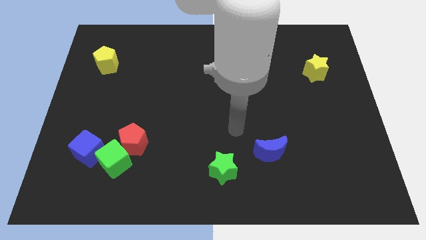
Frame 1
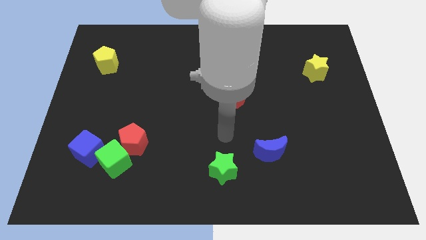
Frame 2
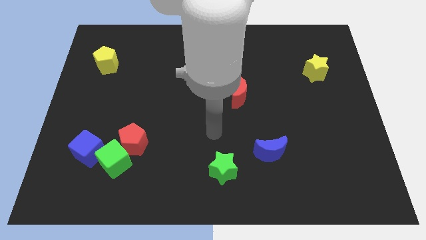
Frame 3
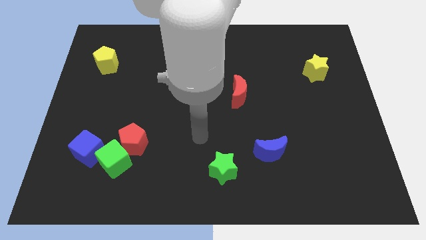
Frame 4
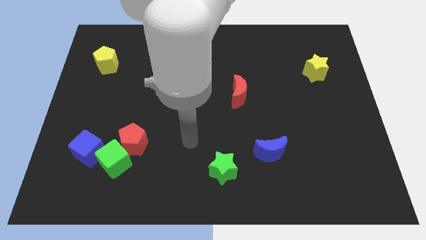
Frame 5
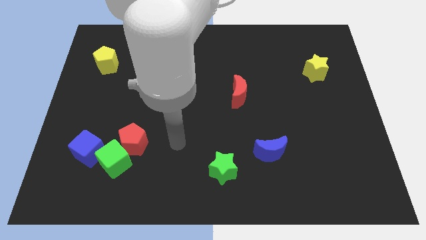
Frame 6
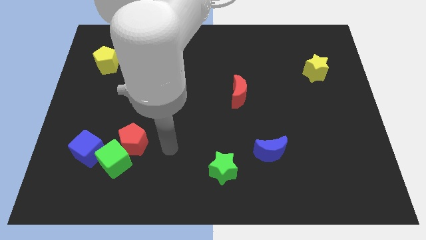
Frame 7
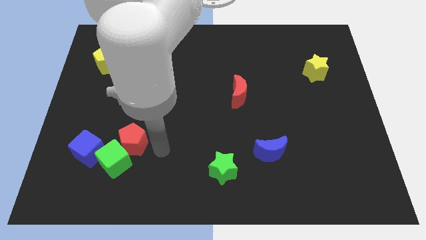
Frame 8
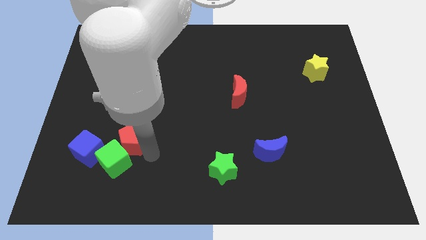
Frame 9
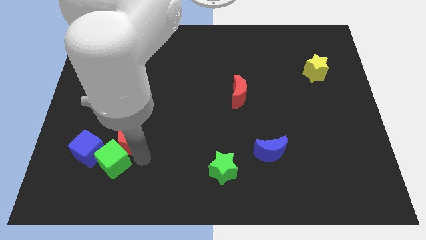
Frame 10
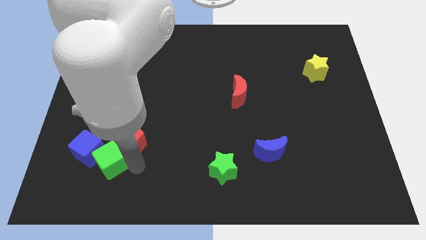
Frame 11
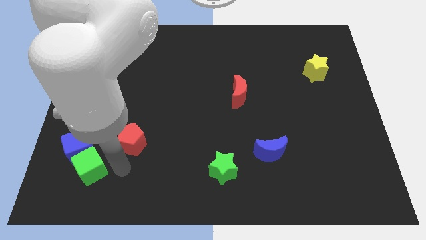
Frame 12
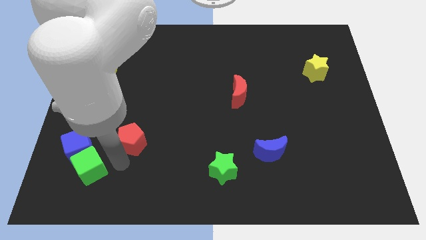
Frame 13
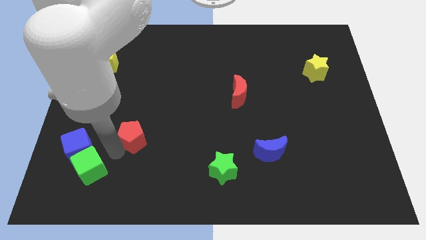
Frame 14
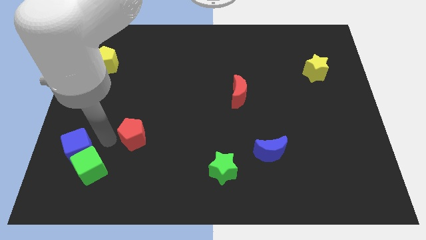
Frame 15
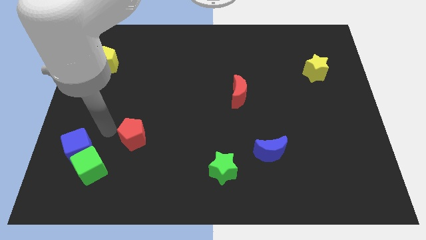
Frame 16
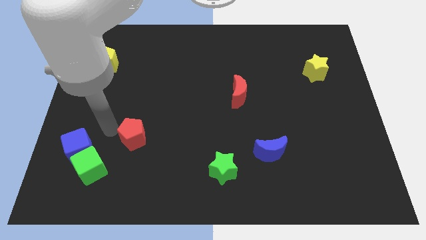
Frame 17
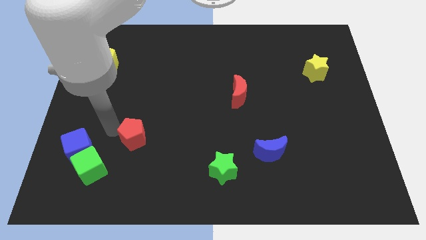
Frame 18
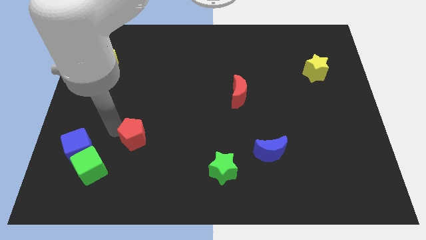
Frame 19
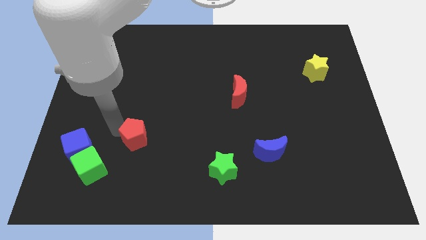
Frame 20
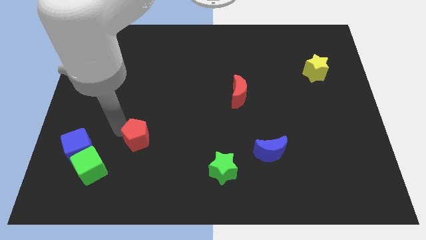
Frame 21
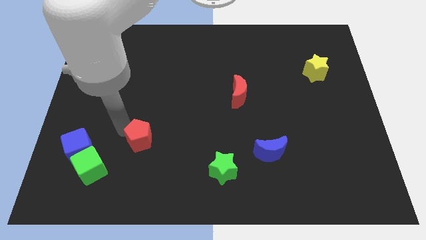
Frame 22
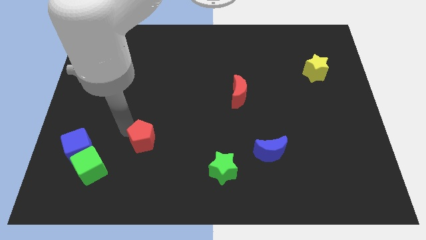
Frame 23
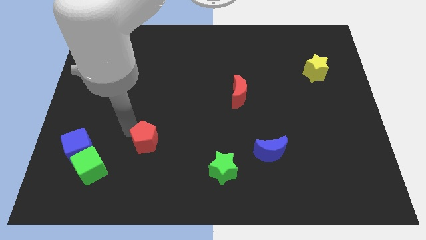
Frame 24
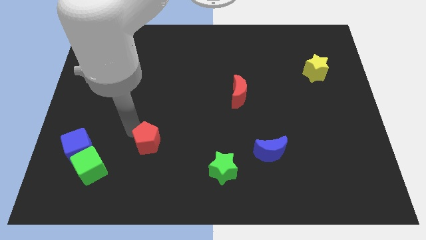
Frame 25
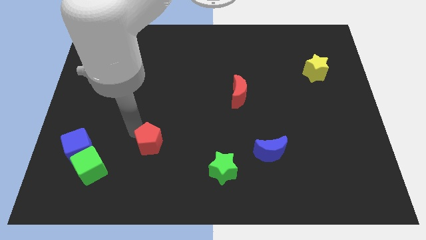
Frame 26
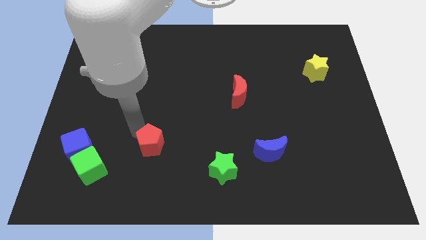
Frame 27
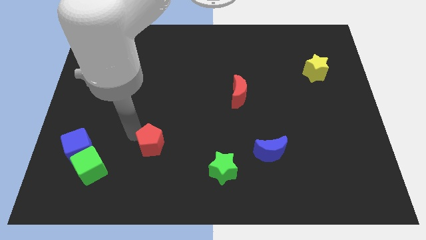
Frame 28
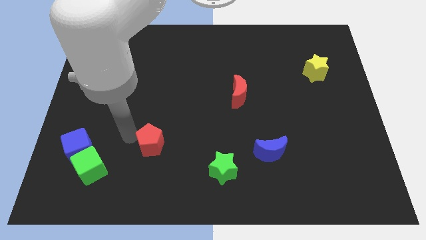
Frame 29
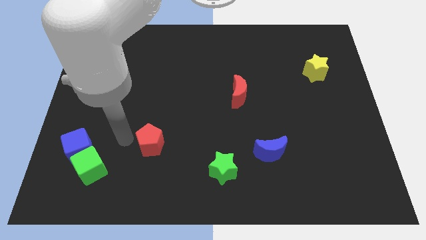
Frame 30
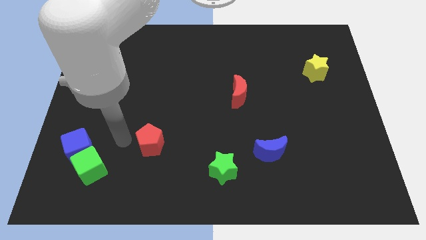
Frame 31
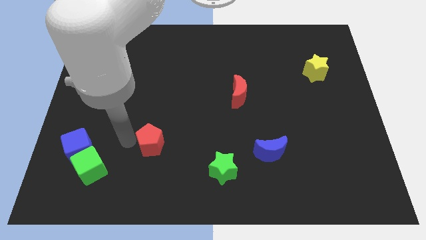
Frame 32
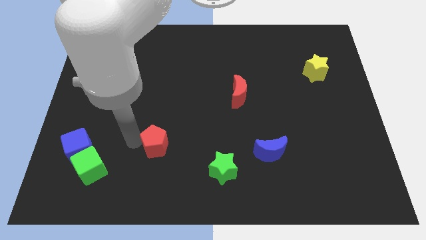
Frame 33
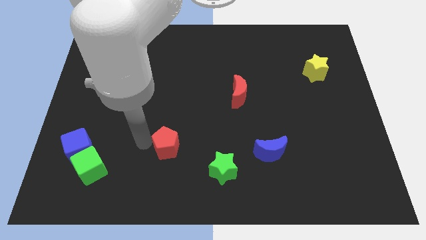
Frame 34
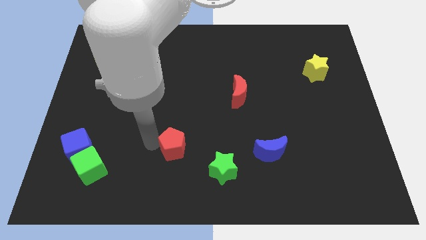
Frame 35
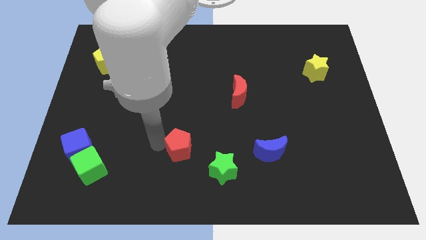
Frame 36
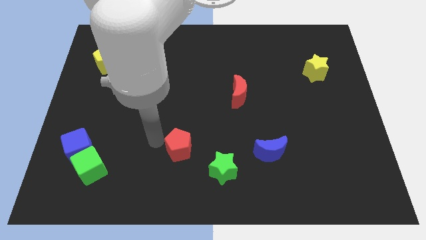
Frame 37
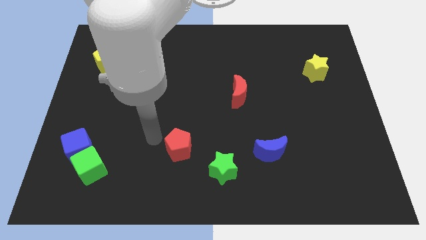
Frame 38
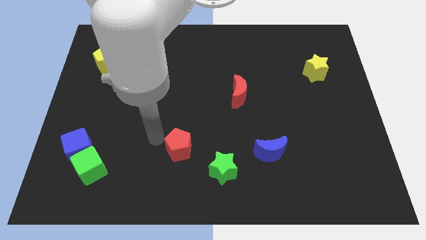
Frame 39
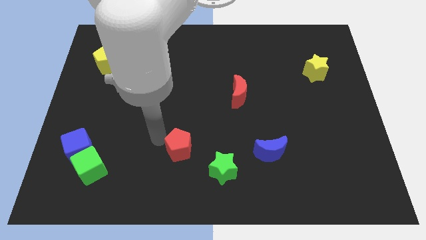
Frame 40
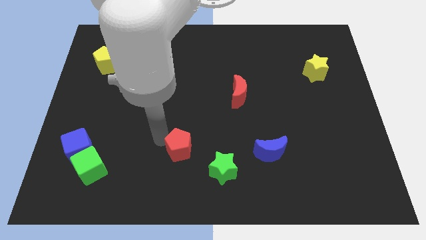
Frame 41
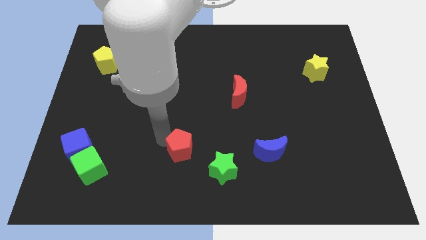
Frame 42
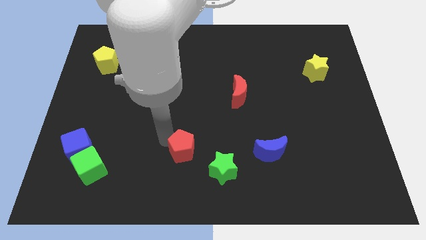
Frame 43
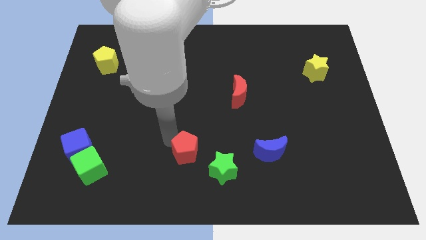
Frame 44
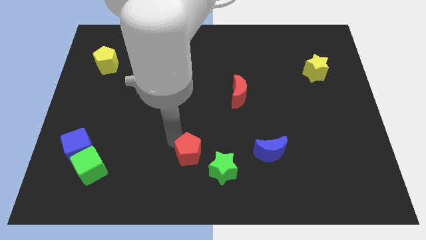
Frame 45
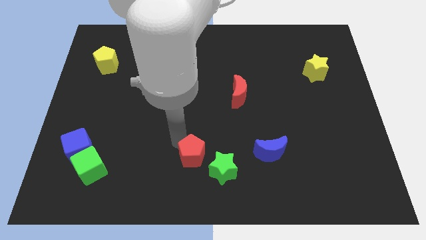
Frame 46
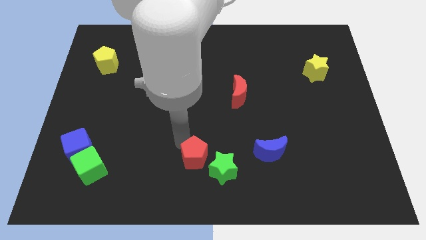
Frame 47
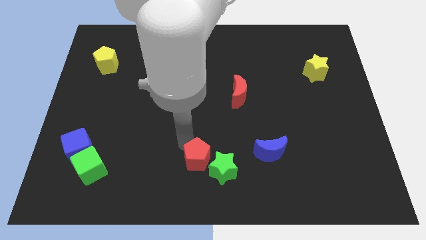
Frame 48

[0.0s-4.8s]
slide the red pentagon to the green star

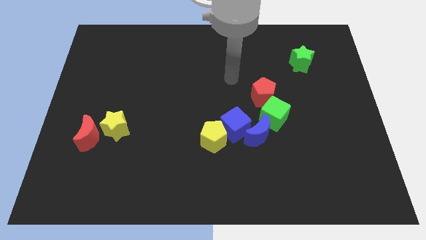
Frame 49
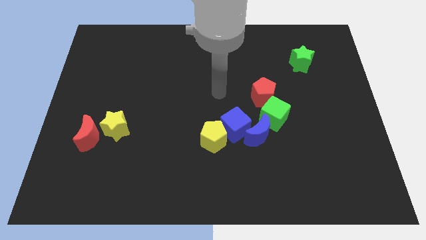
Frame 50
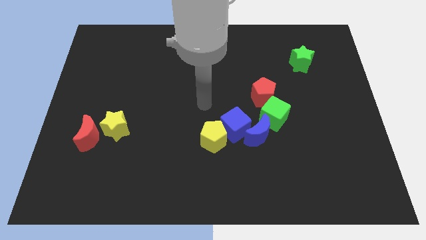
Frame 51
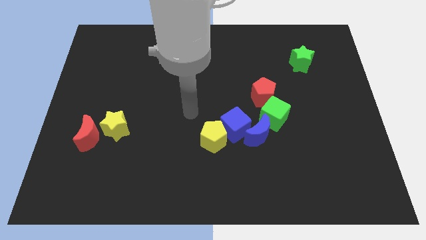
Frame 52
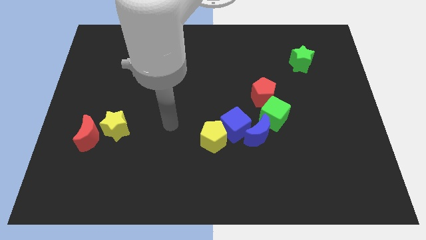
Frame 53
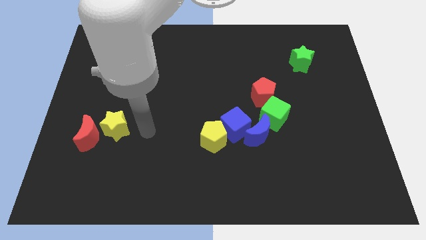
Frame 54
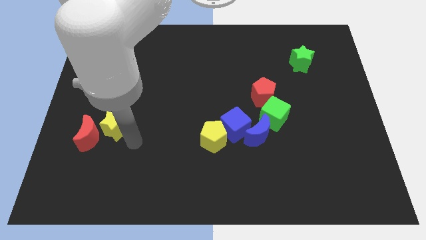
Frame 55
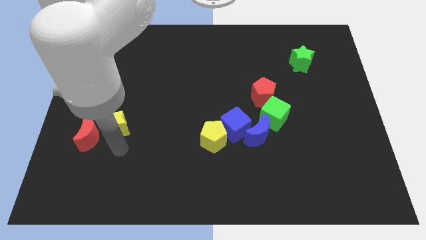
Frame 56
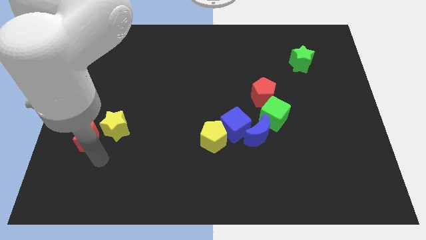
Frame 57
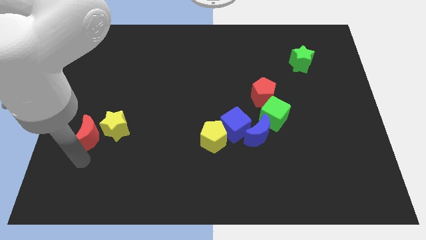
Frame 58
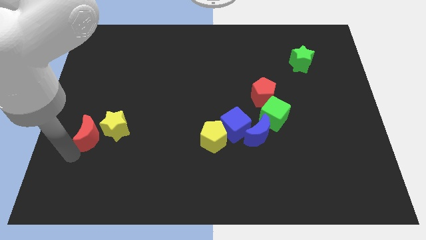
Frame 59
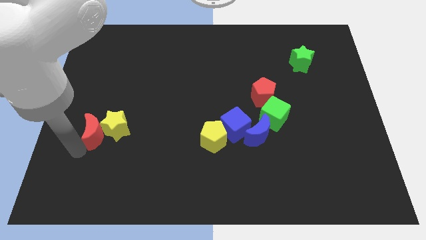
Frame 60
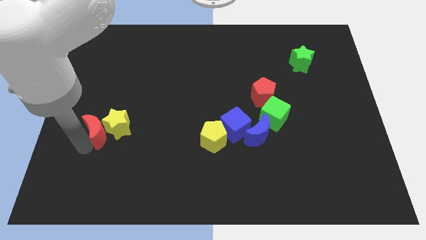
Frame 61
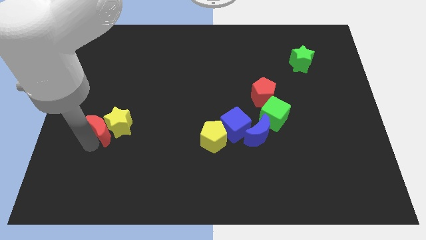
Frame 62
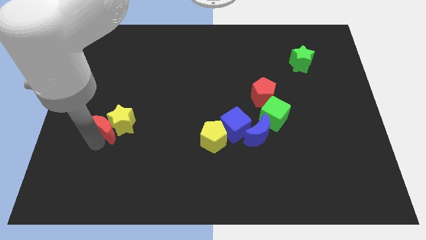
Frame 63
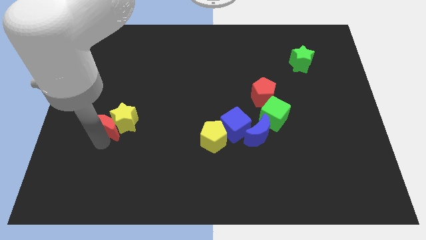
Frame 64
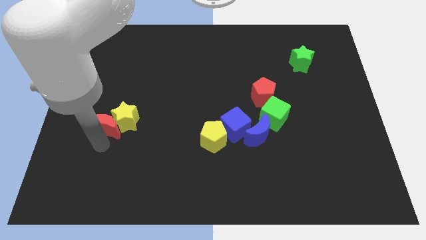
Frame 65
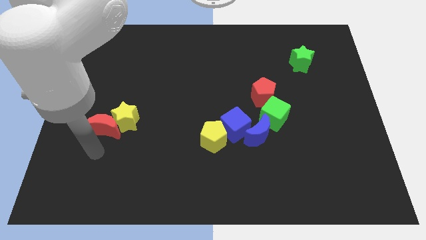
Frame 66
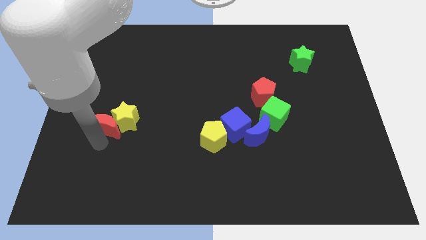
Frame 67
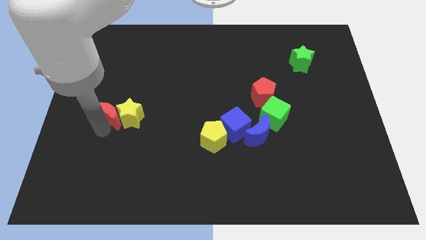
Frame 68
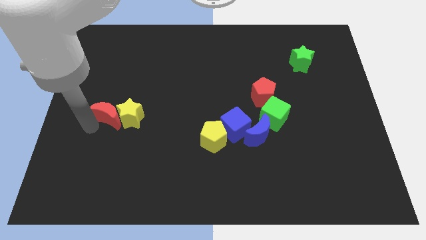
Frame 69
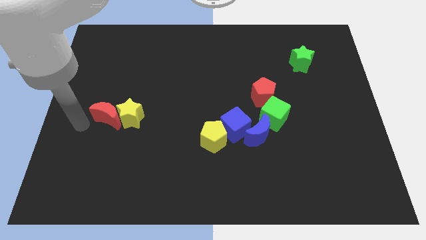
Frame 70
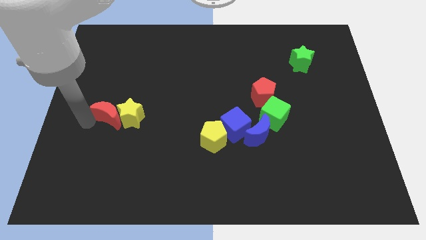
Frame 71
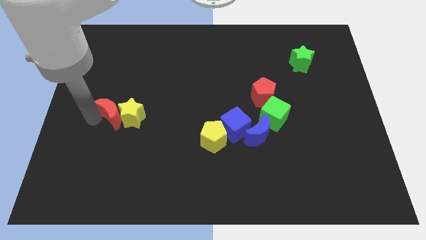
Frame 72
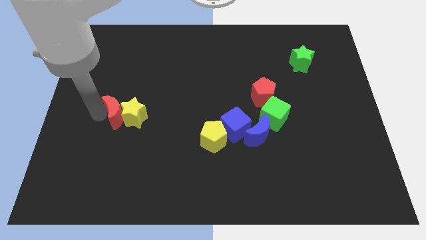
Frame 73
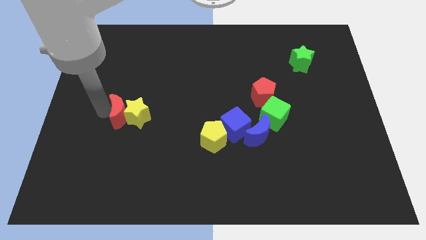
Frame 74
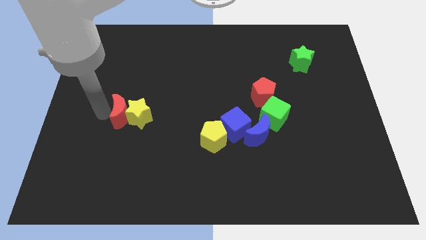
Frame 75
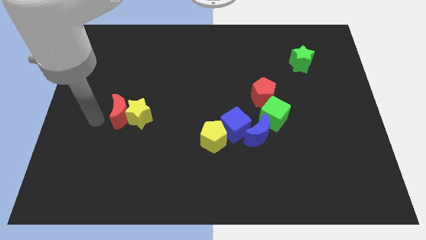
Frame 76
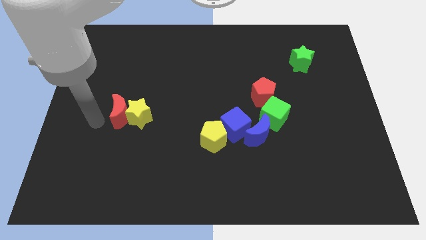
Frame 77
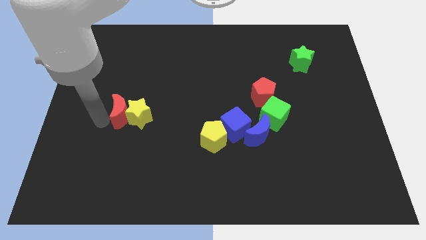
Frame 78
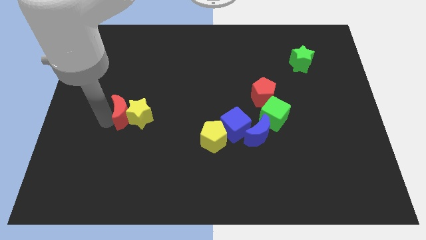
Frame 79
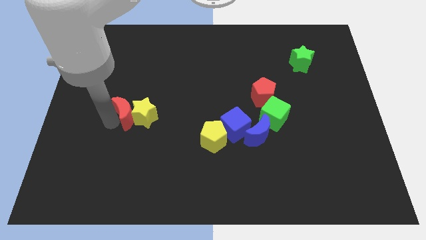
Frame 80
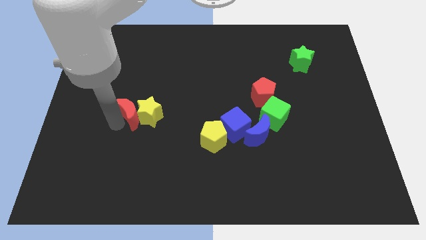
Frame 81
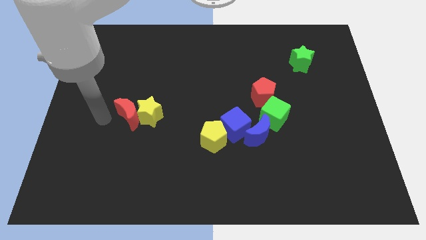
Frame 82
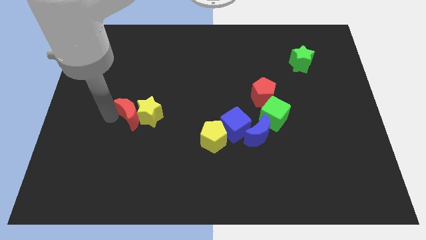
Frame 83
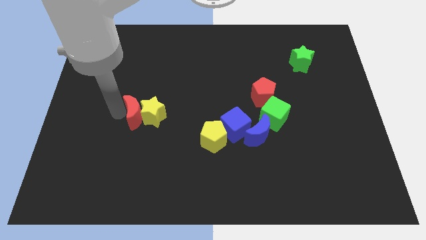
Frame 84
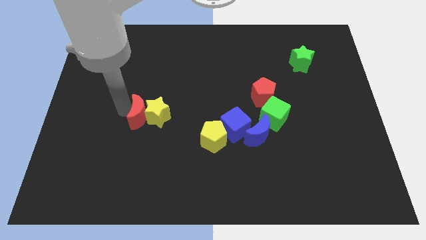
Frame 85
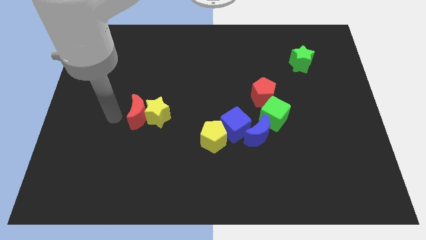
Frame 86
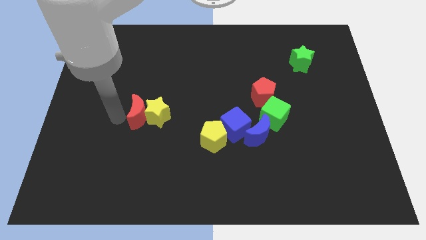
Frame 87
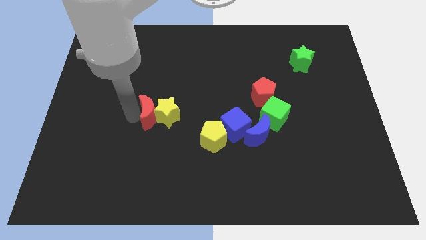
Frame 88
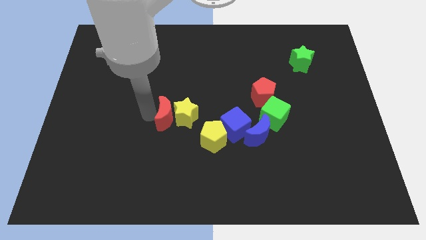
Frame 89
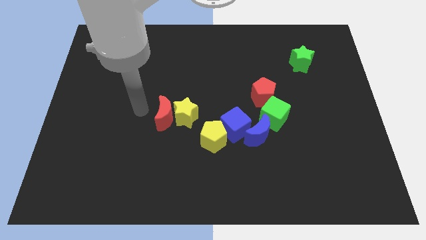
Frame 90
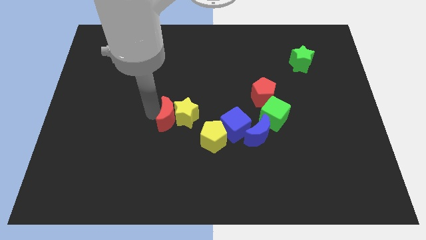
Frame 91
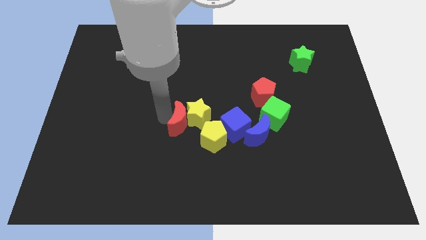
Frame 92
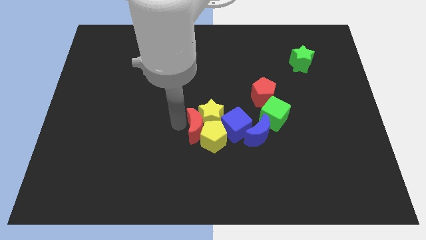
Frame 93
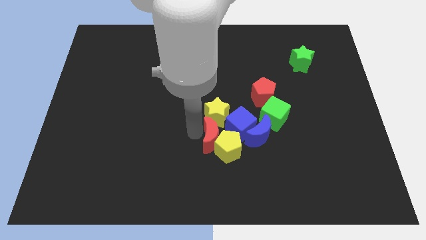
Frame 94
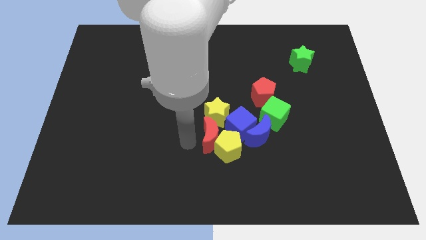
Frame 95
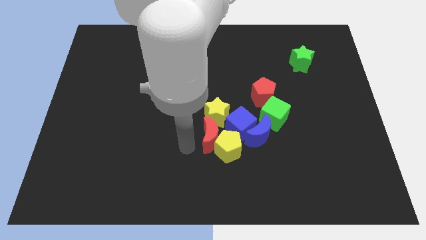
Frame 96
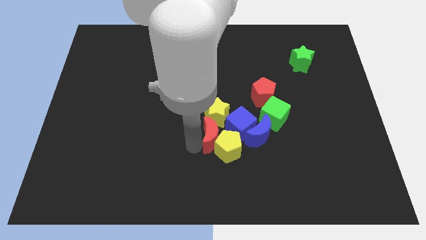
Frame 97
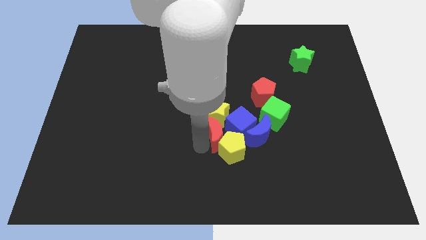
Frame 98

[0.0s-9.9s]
put the red moon towards the blue cube
